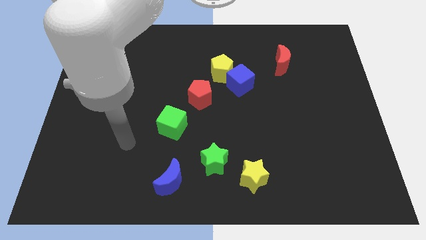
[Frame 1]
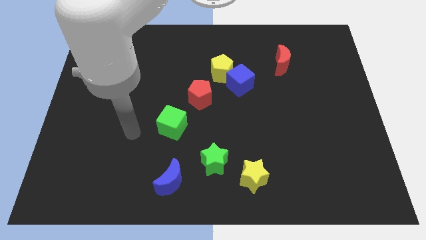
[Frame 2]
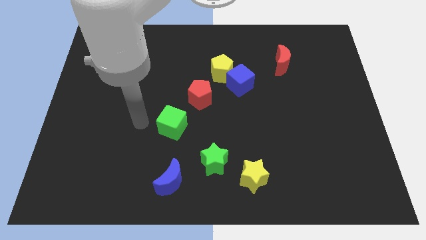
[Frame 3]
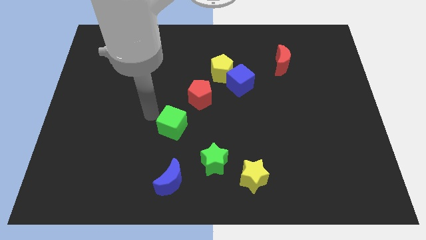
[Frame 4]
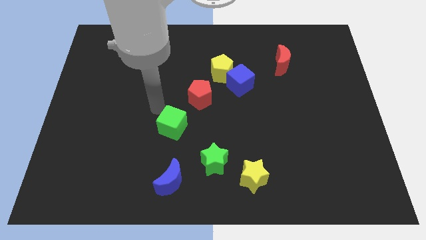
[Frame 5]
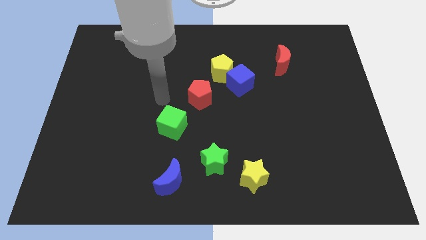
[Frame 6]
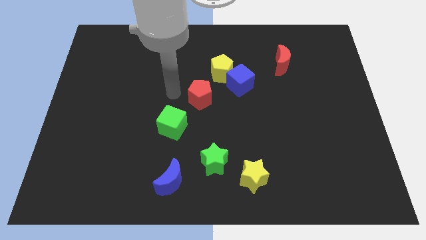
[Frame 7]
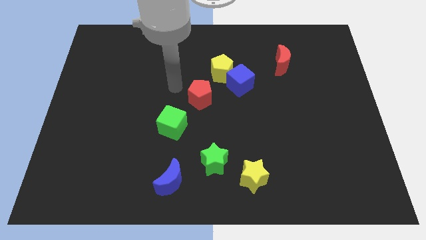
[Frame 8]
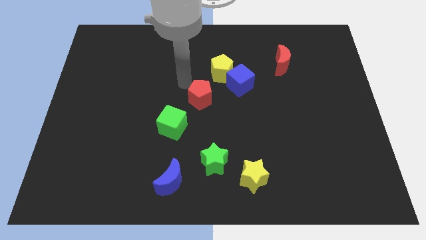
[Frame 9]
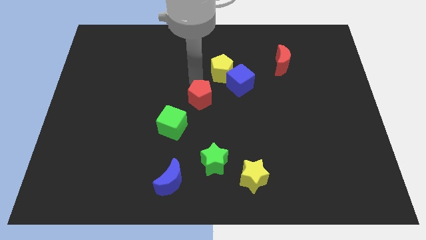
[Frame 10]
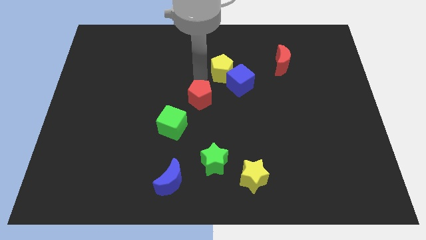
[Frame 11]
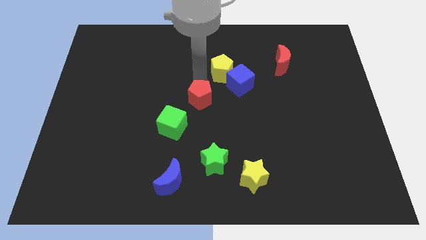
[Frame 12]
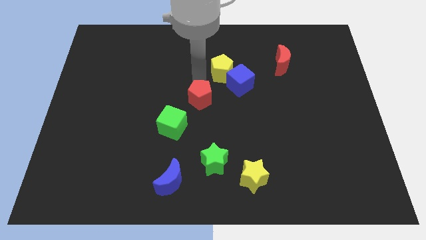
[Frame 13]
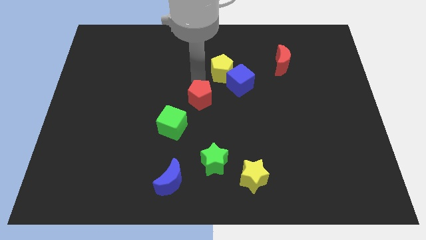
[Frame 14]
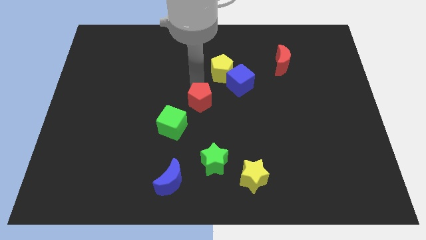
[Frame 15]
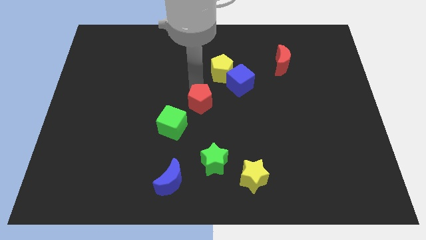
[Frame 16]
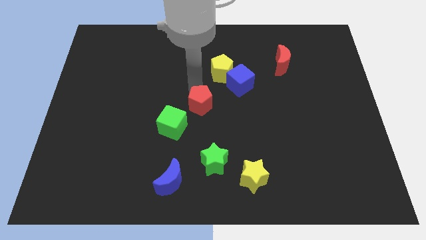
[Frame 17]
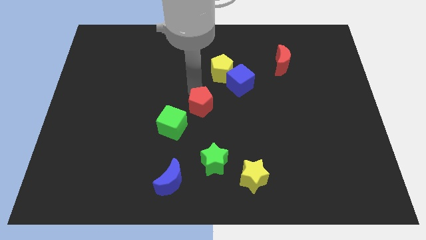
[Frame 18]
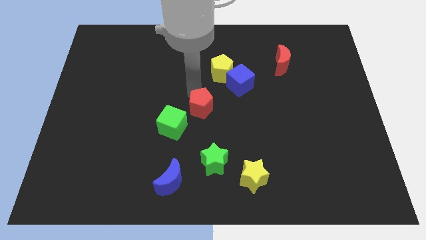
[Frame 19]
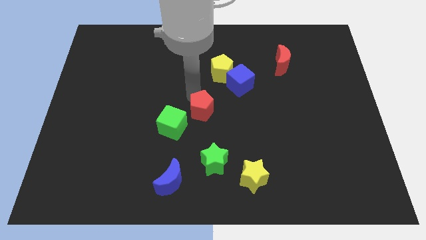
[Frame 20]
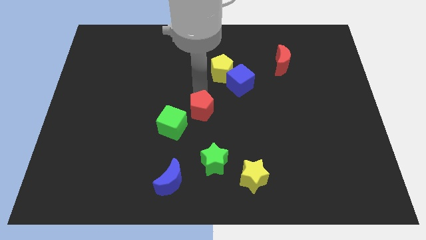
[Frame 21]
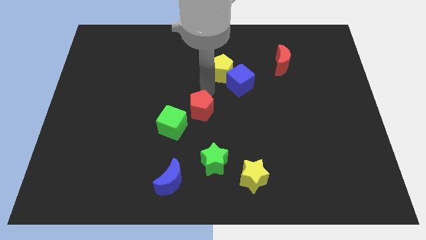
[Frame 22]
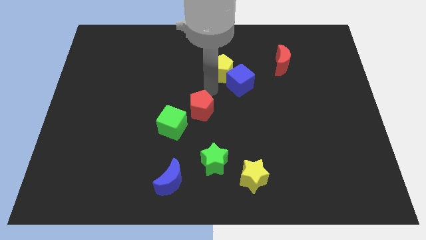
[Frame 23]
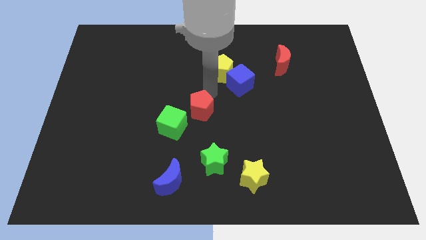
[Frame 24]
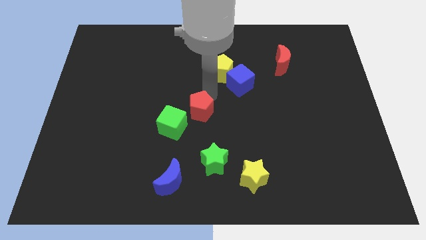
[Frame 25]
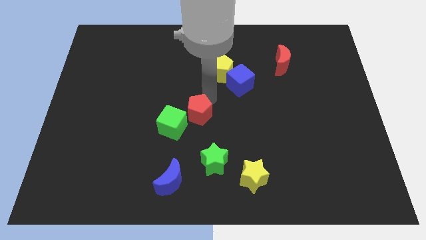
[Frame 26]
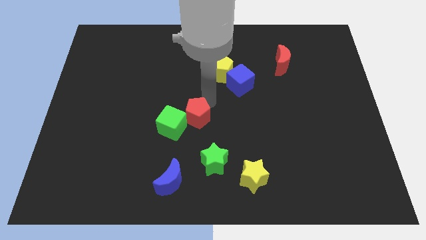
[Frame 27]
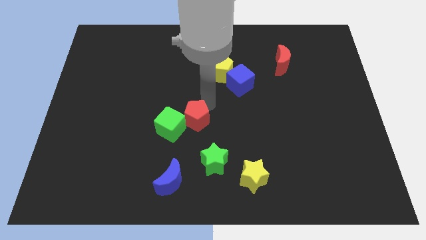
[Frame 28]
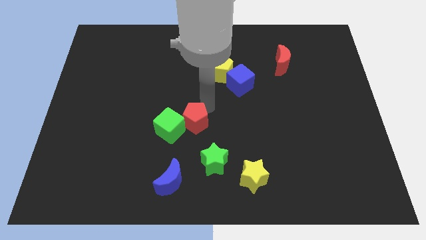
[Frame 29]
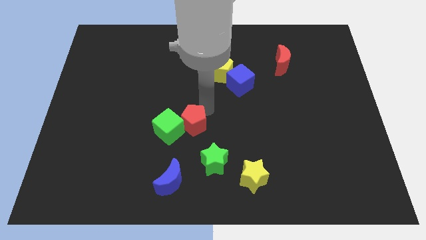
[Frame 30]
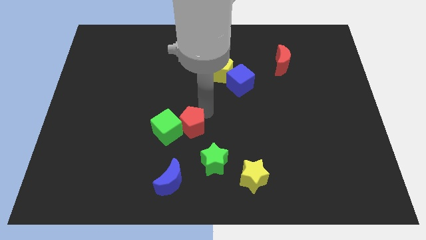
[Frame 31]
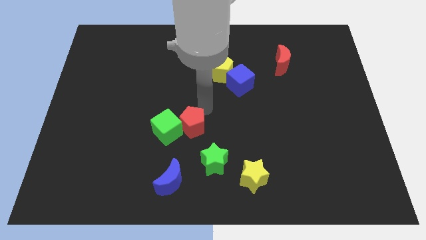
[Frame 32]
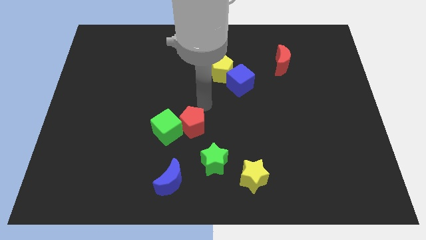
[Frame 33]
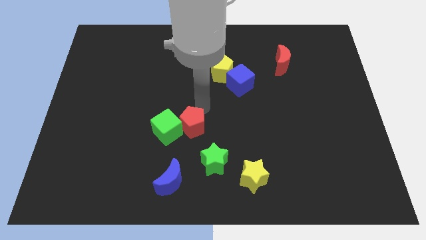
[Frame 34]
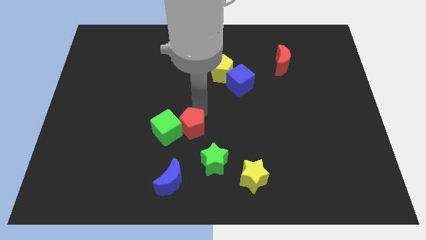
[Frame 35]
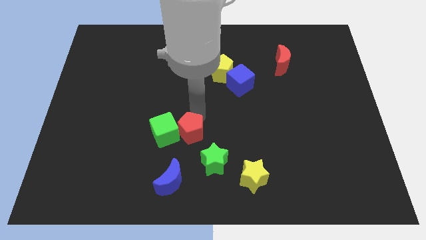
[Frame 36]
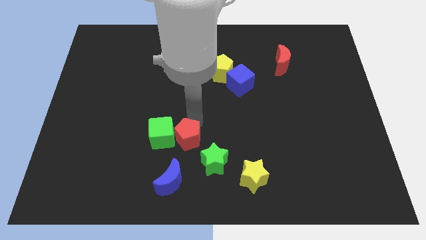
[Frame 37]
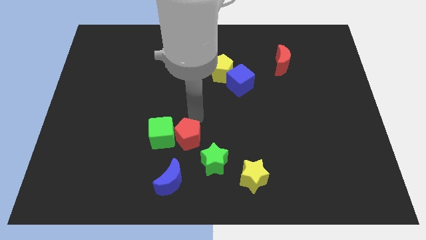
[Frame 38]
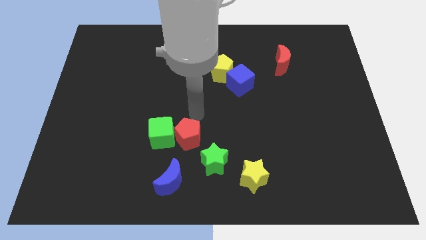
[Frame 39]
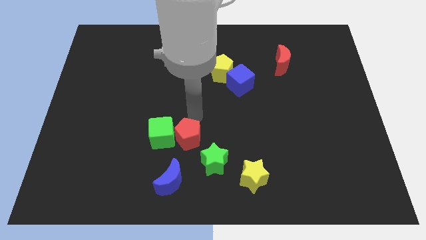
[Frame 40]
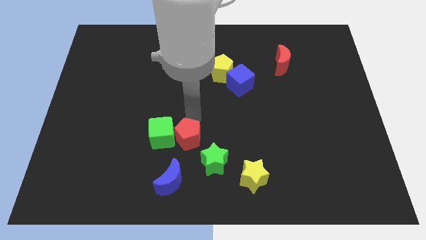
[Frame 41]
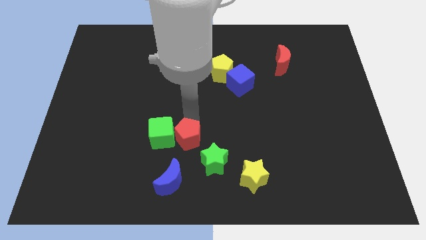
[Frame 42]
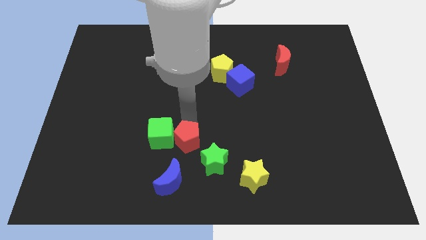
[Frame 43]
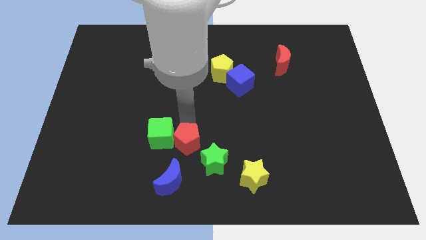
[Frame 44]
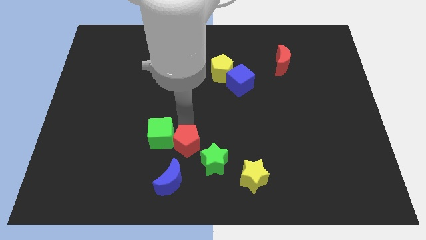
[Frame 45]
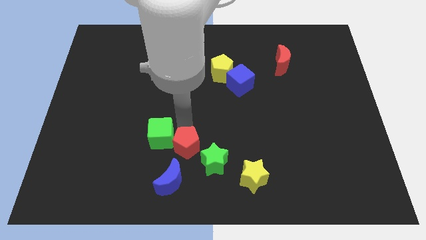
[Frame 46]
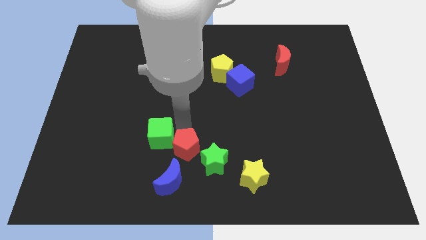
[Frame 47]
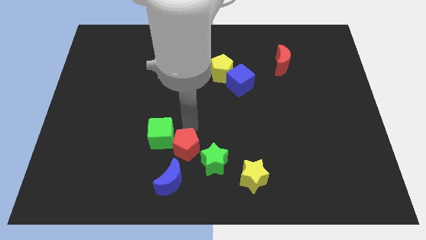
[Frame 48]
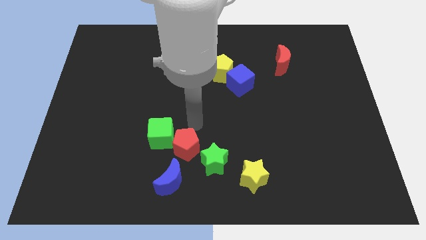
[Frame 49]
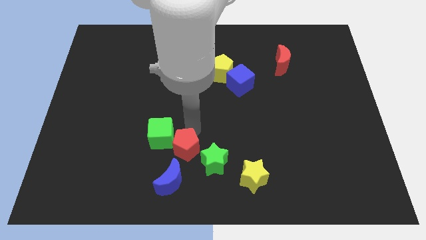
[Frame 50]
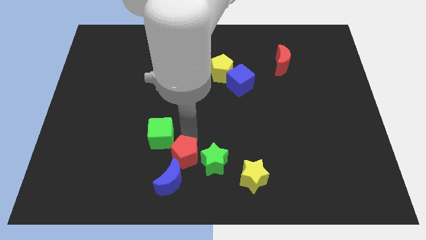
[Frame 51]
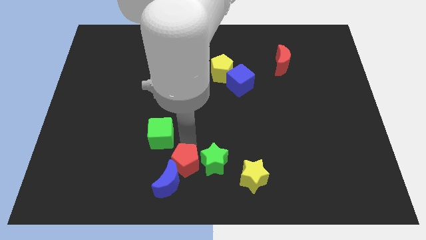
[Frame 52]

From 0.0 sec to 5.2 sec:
slide the red pentagon next to the blue moon

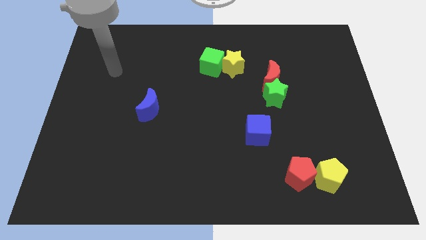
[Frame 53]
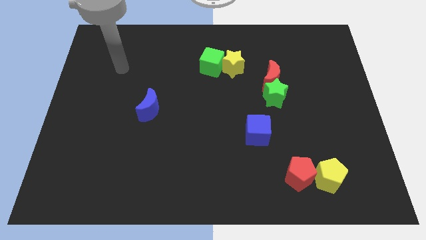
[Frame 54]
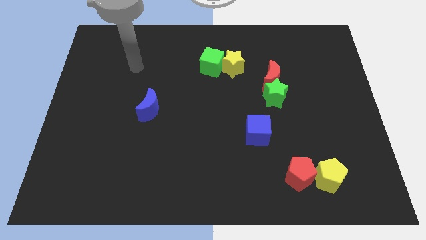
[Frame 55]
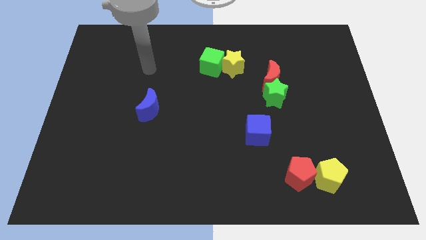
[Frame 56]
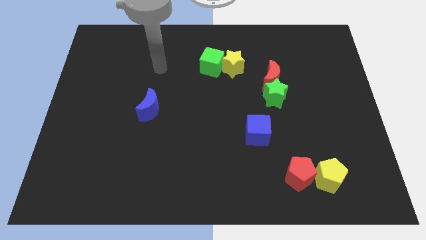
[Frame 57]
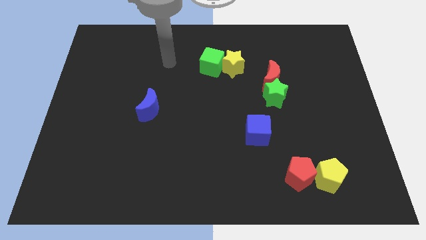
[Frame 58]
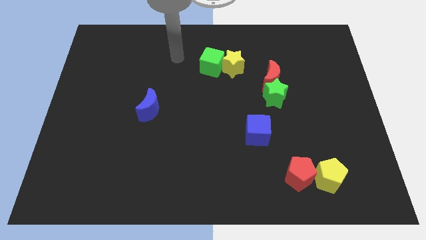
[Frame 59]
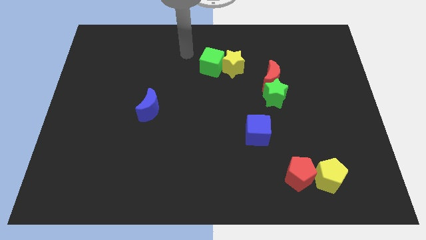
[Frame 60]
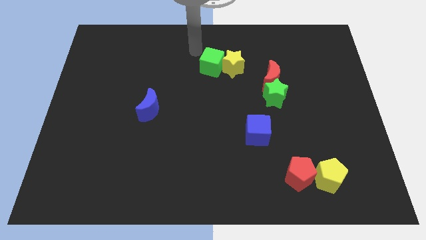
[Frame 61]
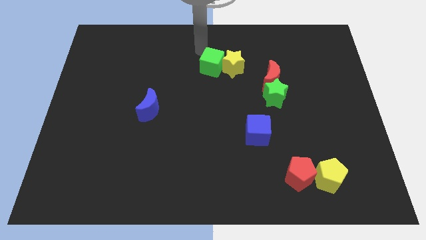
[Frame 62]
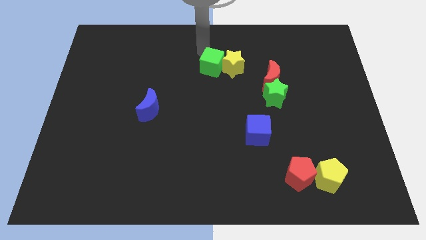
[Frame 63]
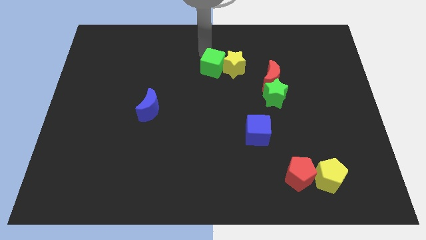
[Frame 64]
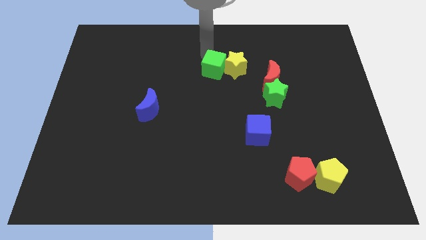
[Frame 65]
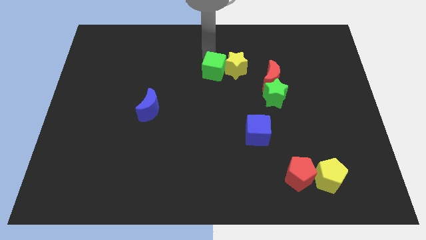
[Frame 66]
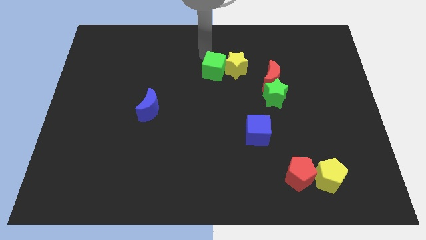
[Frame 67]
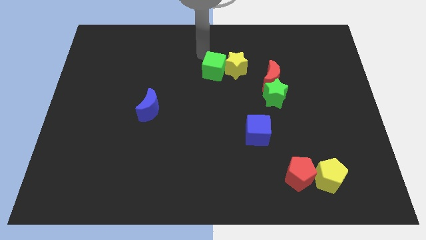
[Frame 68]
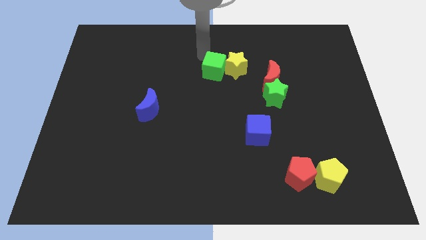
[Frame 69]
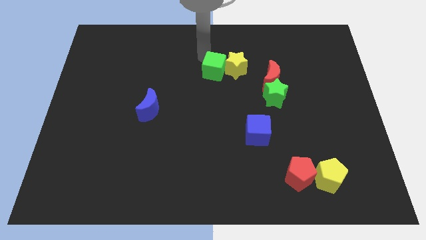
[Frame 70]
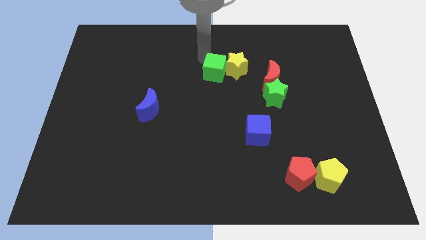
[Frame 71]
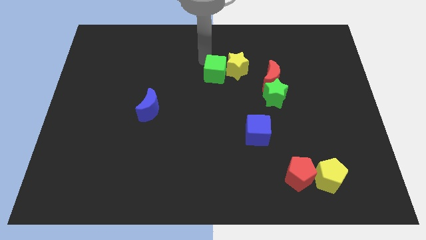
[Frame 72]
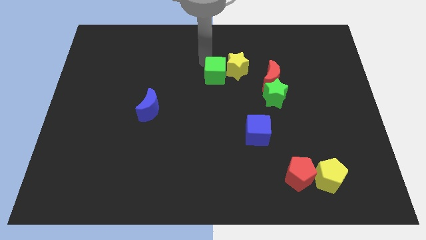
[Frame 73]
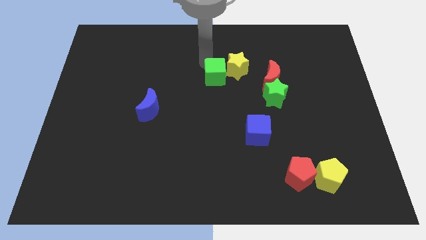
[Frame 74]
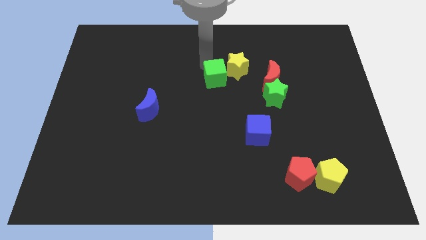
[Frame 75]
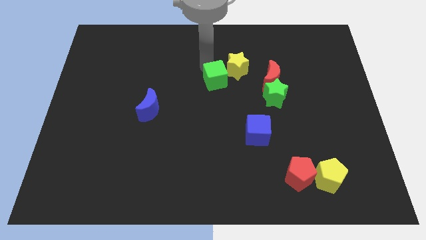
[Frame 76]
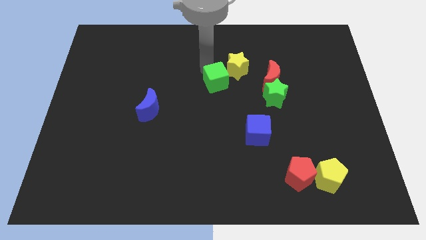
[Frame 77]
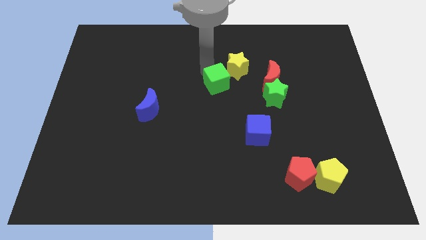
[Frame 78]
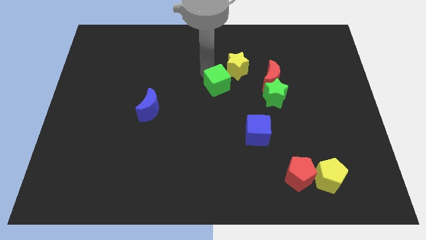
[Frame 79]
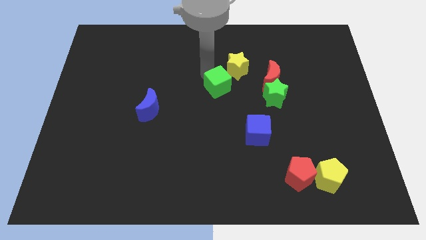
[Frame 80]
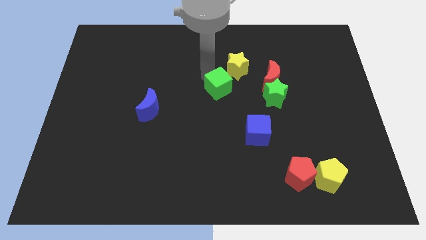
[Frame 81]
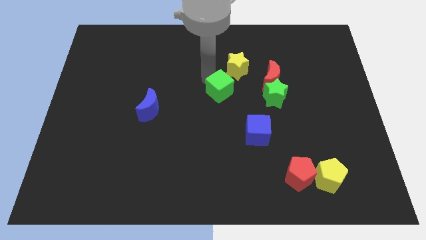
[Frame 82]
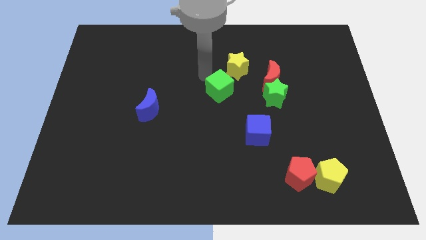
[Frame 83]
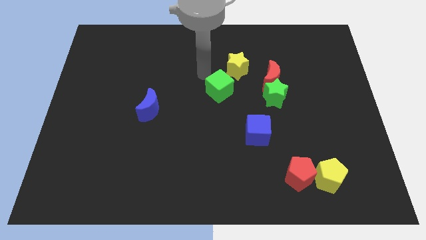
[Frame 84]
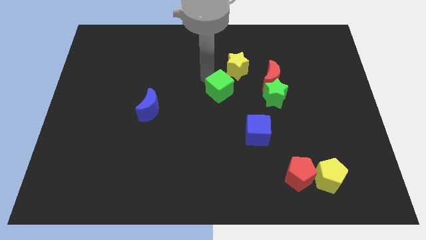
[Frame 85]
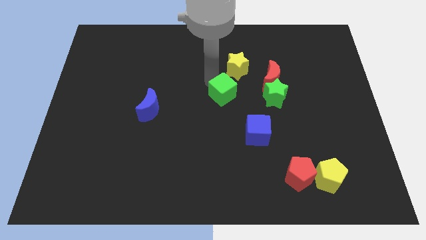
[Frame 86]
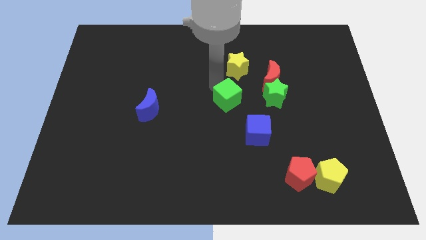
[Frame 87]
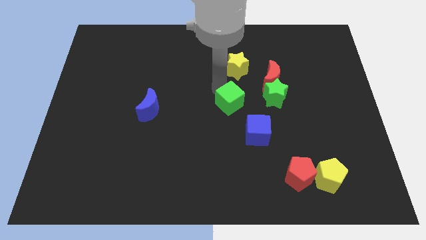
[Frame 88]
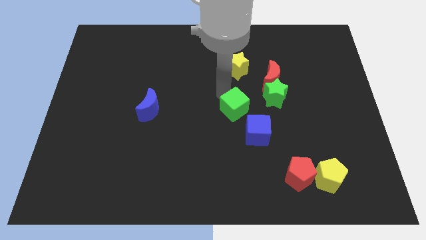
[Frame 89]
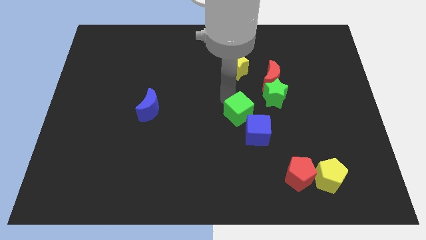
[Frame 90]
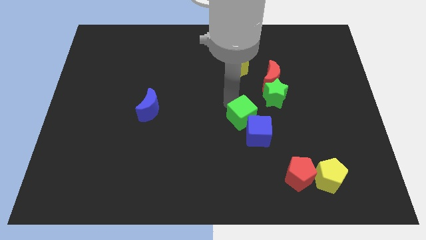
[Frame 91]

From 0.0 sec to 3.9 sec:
push the green cube next to the blue cube
